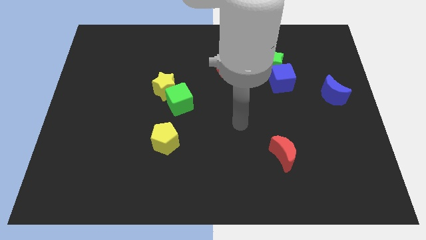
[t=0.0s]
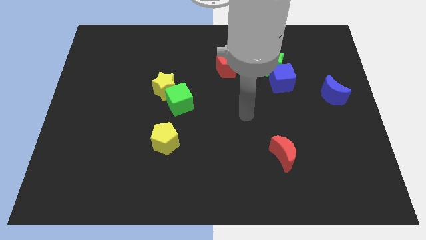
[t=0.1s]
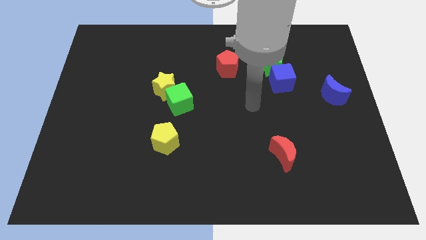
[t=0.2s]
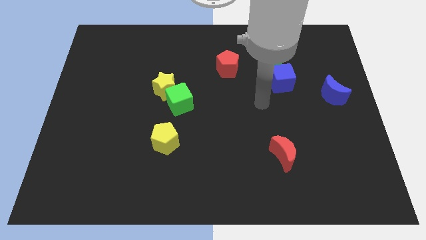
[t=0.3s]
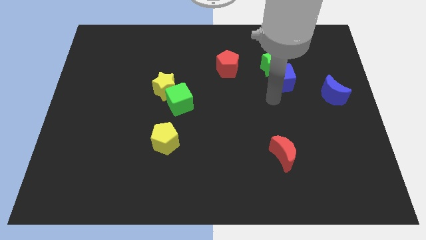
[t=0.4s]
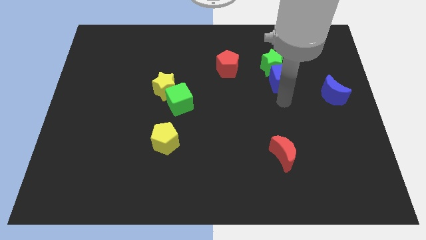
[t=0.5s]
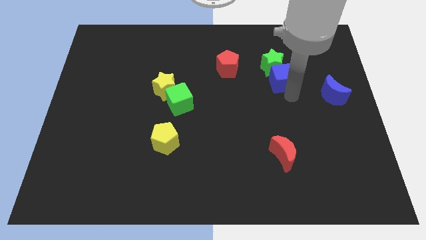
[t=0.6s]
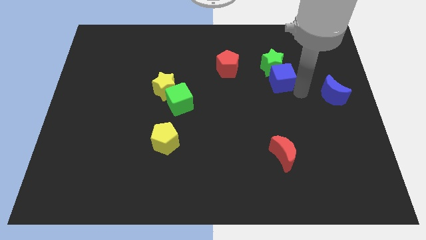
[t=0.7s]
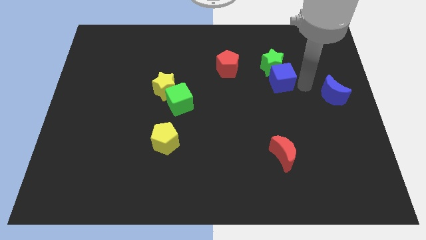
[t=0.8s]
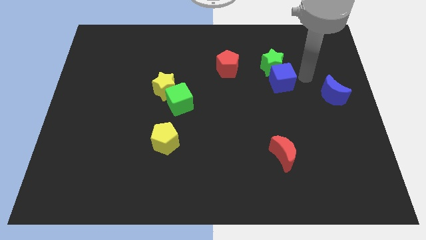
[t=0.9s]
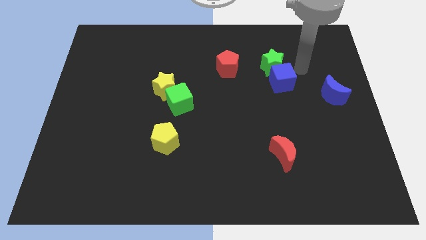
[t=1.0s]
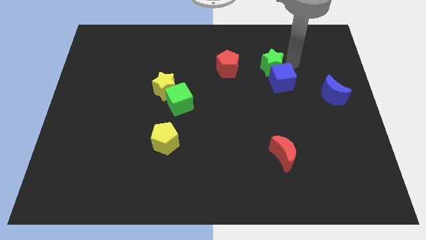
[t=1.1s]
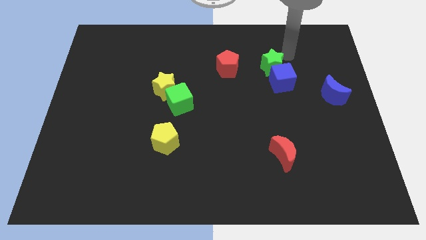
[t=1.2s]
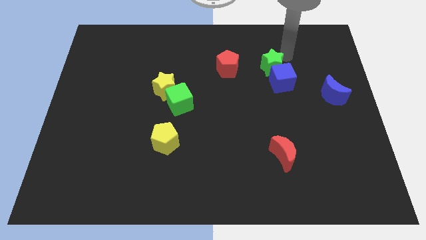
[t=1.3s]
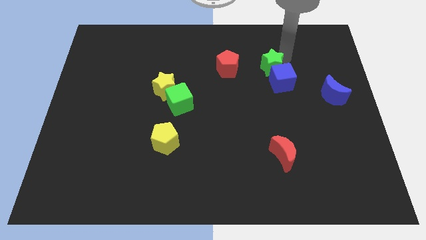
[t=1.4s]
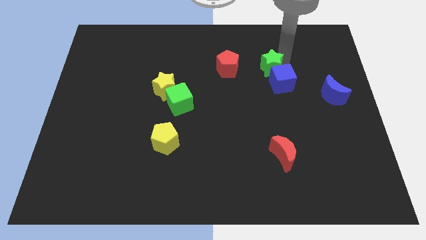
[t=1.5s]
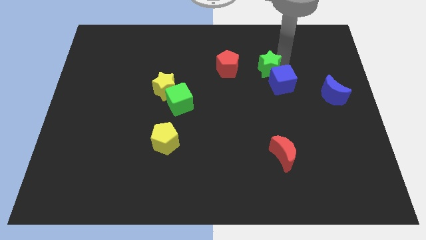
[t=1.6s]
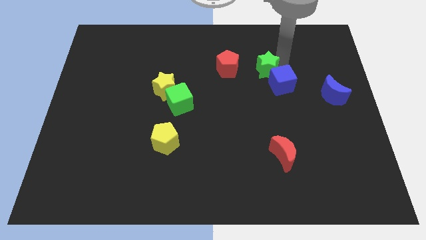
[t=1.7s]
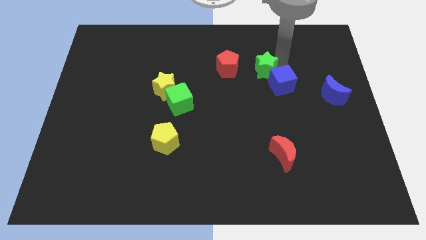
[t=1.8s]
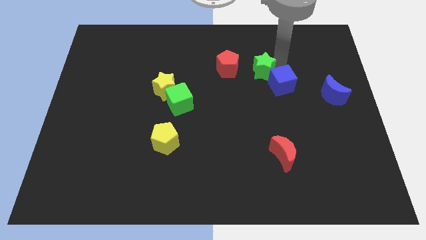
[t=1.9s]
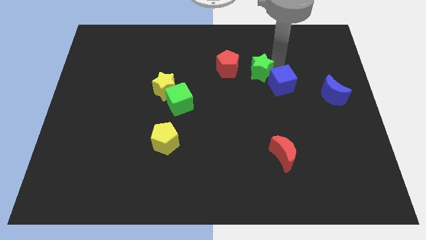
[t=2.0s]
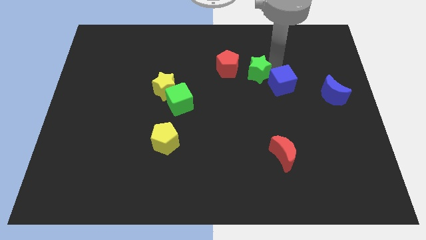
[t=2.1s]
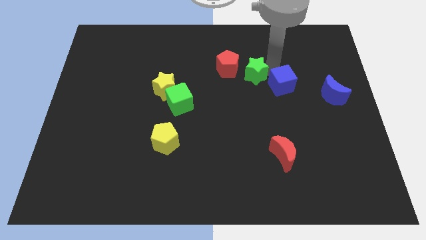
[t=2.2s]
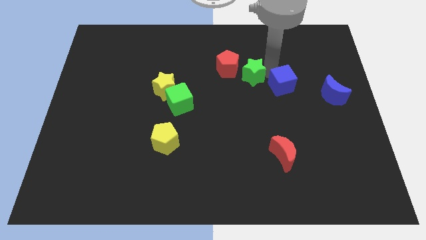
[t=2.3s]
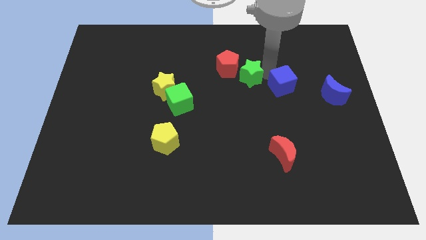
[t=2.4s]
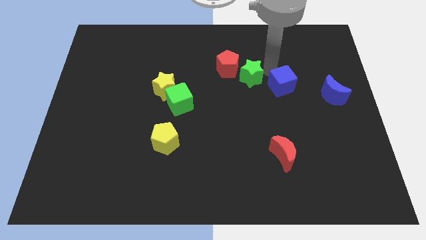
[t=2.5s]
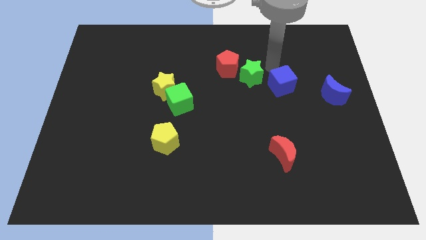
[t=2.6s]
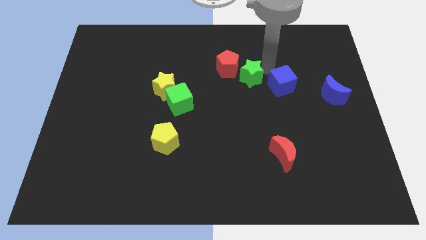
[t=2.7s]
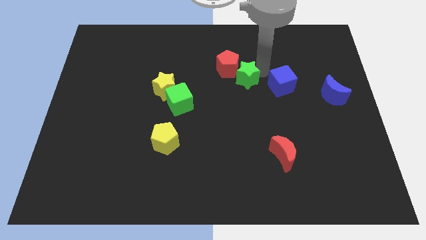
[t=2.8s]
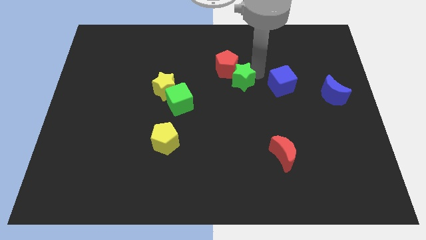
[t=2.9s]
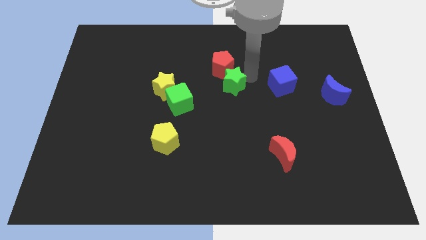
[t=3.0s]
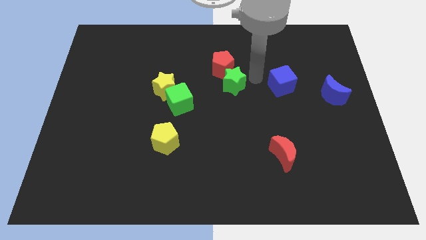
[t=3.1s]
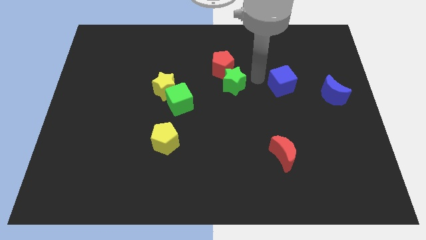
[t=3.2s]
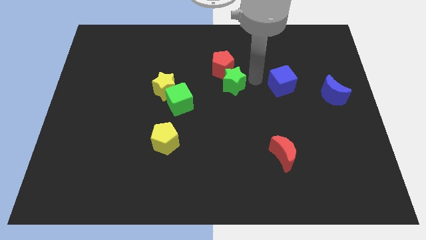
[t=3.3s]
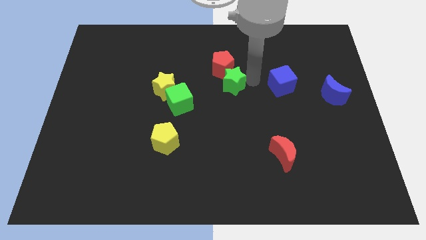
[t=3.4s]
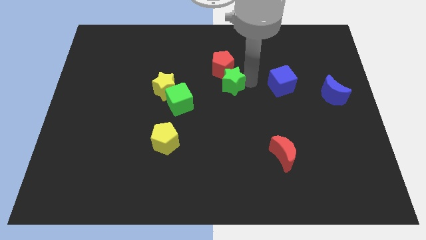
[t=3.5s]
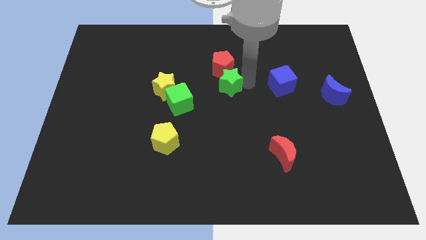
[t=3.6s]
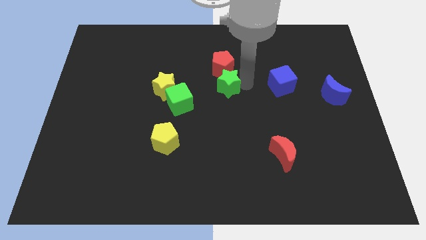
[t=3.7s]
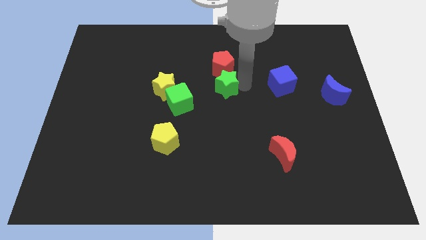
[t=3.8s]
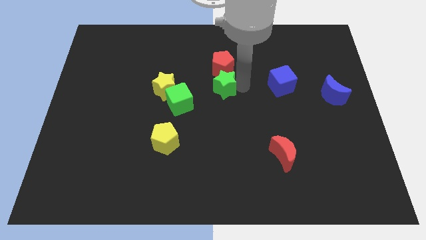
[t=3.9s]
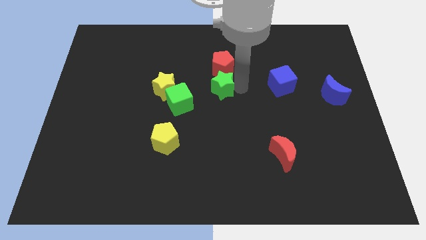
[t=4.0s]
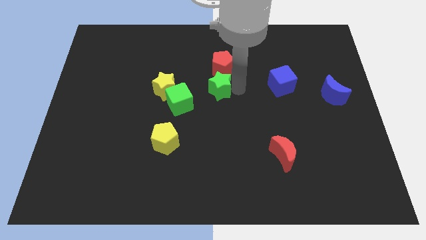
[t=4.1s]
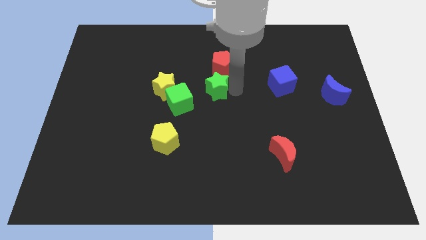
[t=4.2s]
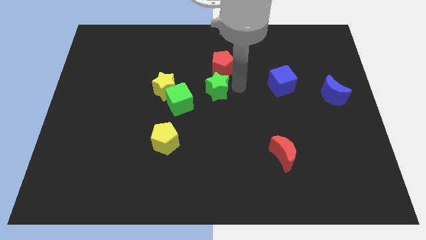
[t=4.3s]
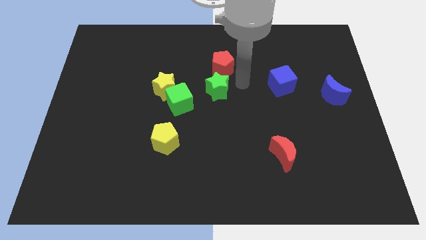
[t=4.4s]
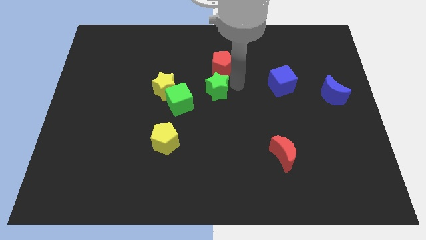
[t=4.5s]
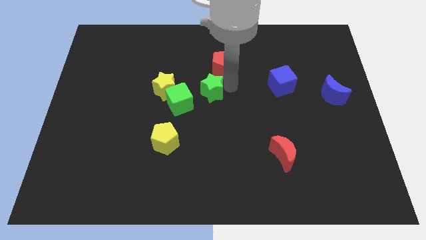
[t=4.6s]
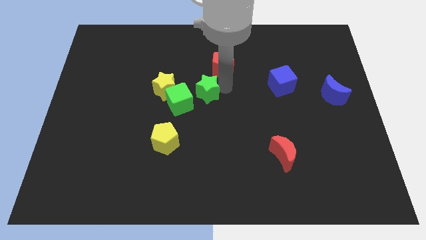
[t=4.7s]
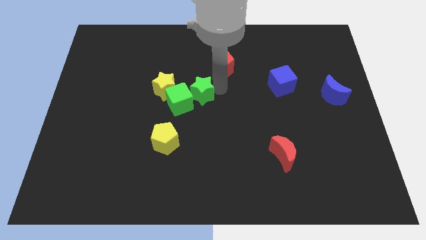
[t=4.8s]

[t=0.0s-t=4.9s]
push the green star close to the green cube

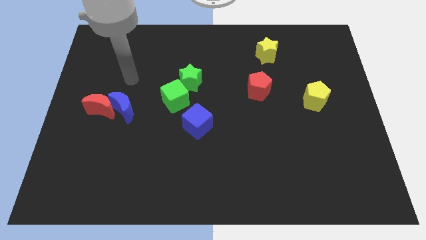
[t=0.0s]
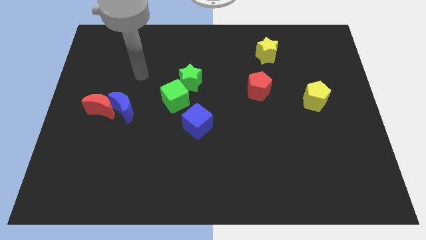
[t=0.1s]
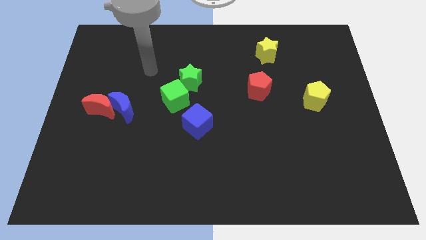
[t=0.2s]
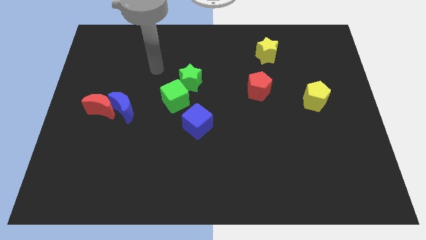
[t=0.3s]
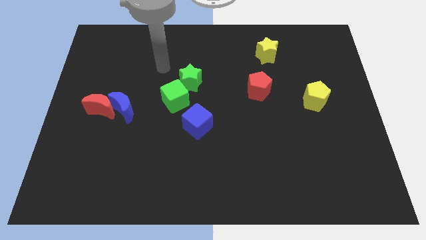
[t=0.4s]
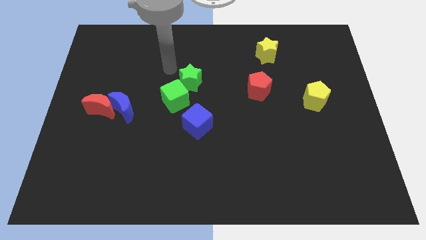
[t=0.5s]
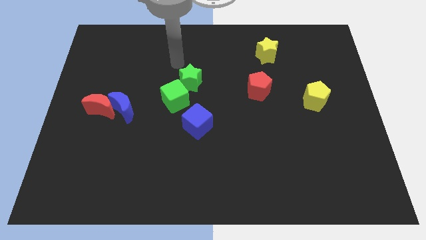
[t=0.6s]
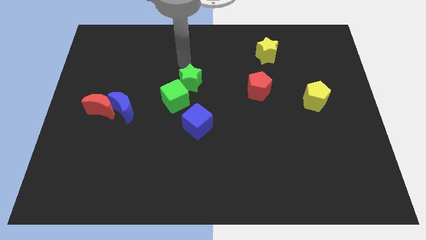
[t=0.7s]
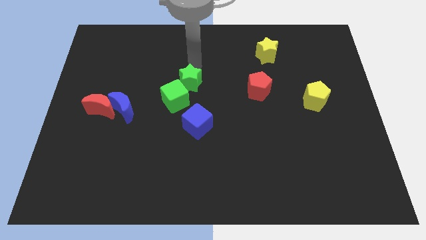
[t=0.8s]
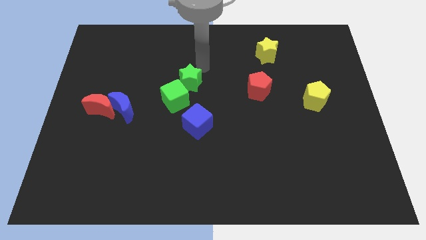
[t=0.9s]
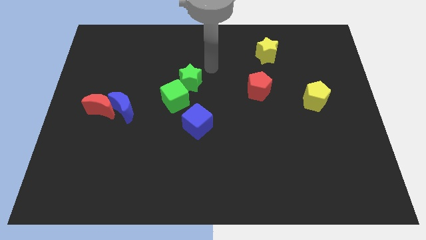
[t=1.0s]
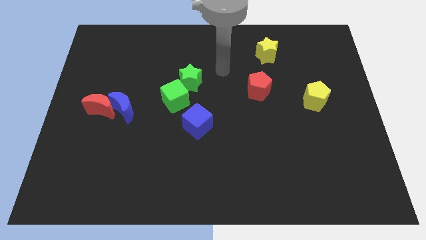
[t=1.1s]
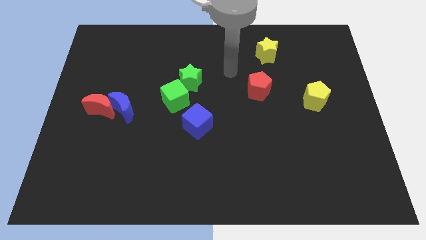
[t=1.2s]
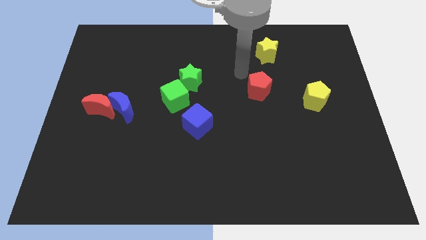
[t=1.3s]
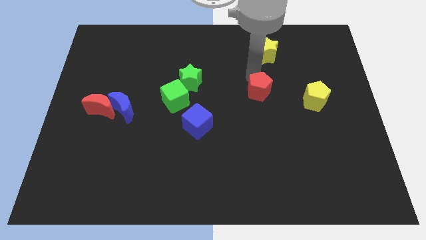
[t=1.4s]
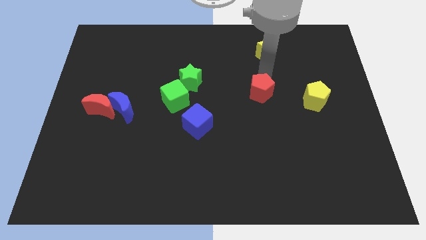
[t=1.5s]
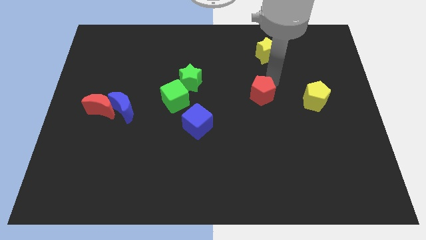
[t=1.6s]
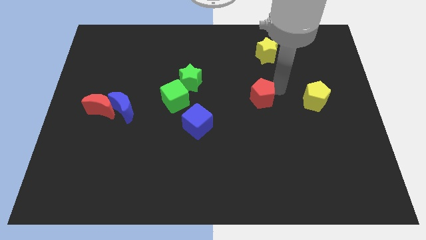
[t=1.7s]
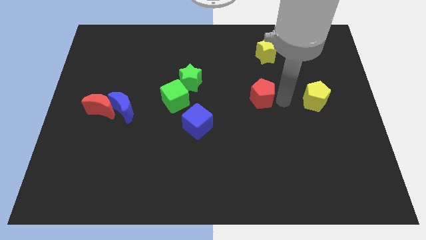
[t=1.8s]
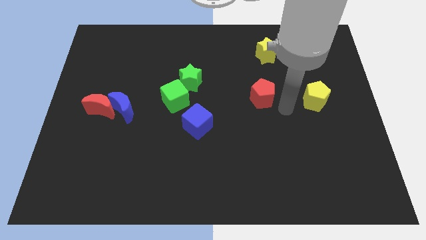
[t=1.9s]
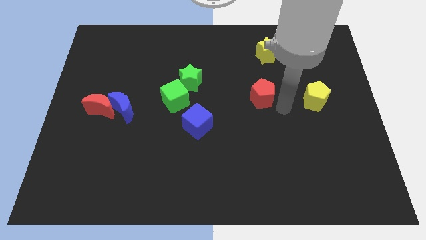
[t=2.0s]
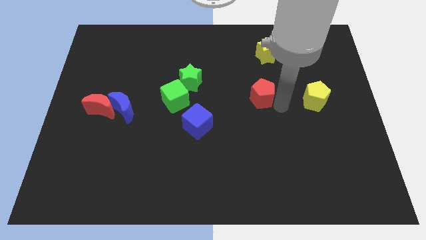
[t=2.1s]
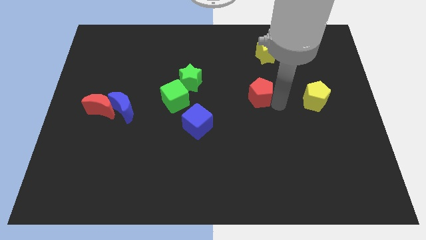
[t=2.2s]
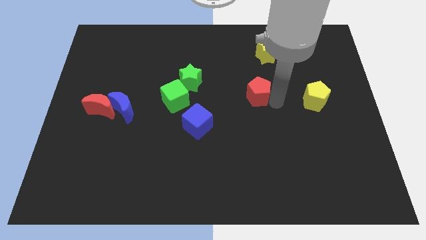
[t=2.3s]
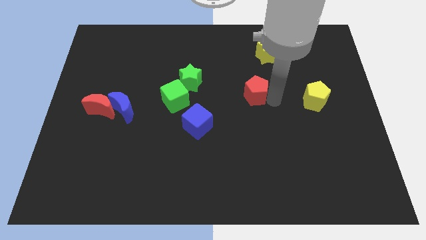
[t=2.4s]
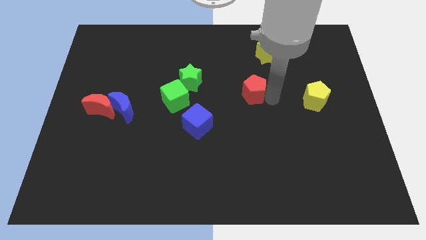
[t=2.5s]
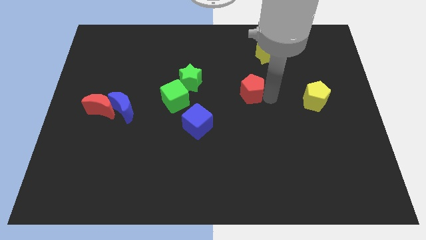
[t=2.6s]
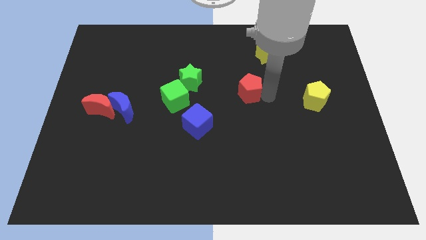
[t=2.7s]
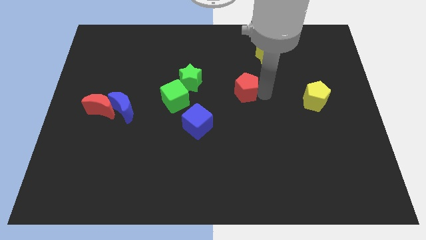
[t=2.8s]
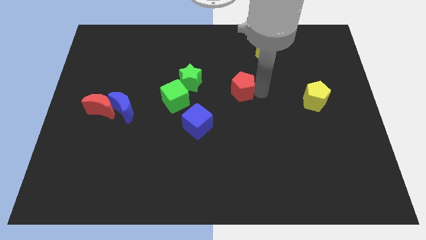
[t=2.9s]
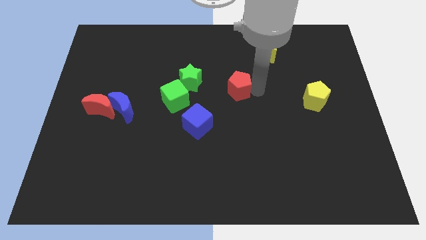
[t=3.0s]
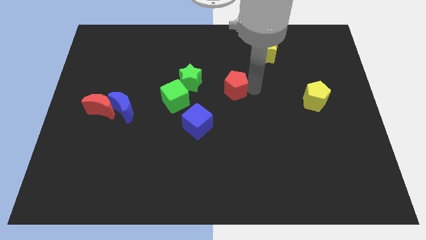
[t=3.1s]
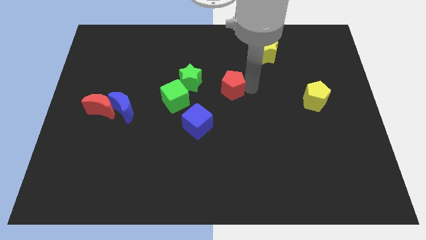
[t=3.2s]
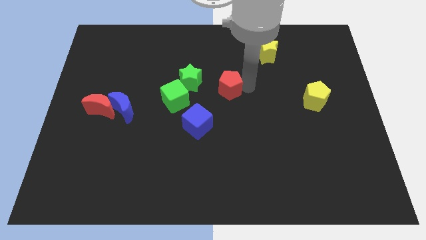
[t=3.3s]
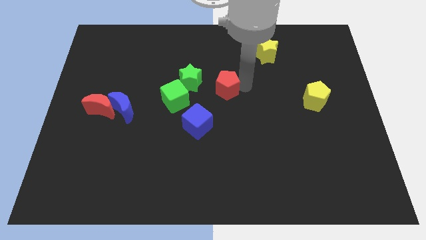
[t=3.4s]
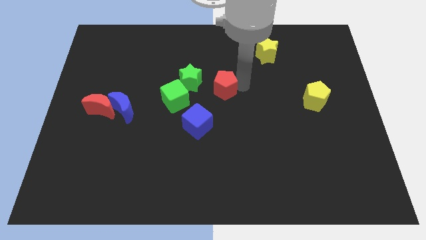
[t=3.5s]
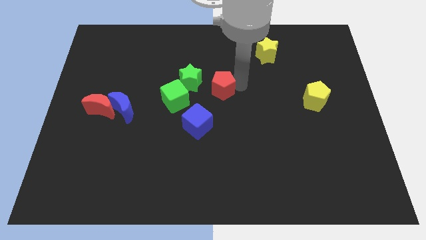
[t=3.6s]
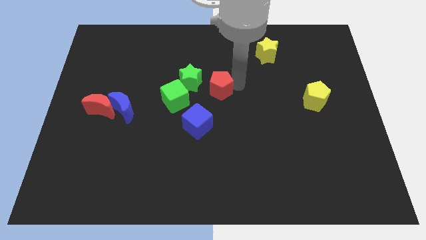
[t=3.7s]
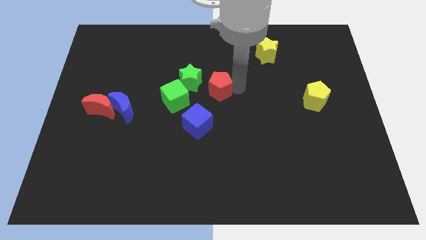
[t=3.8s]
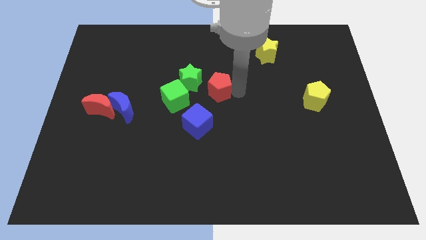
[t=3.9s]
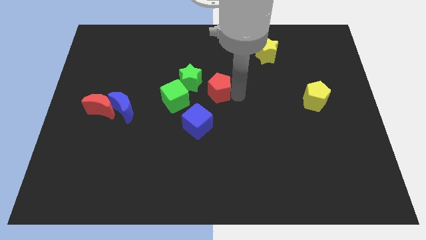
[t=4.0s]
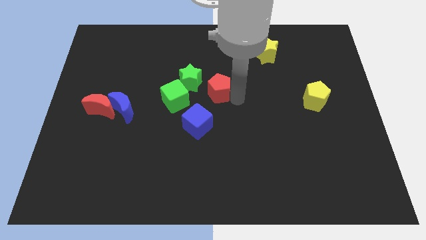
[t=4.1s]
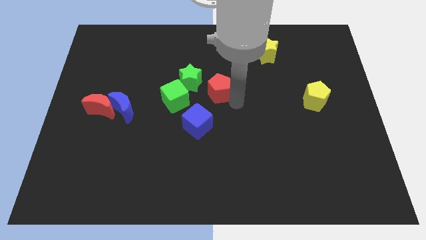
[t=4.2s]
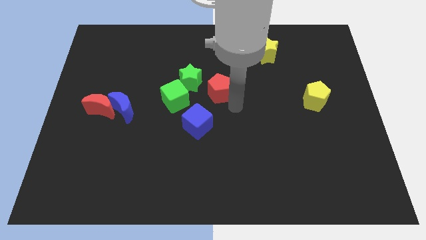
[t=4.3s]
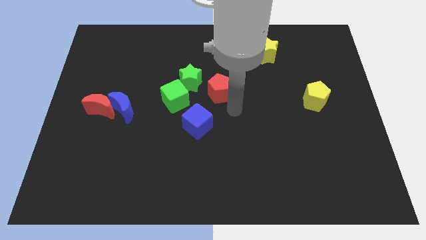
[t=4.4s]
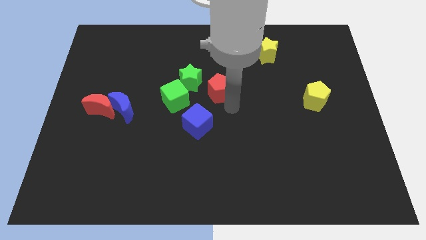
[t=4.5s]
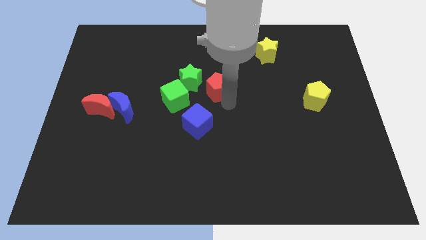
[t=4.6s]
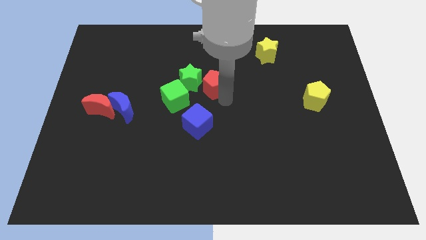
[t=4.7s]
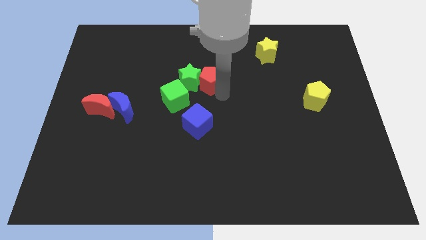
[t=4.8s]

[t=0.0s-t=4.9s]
slide the red pentagon close to the green star
